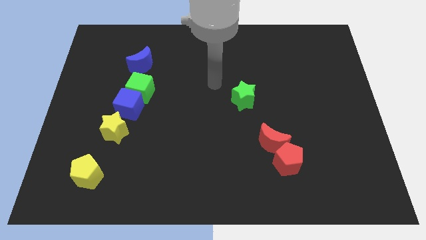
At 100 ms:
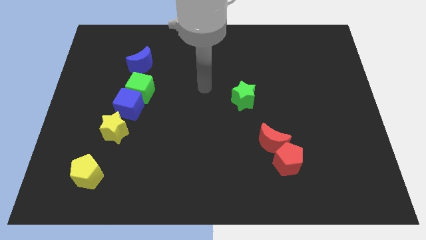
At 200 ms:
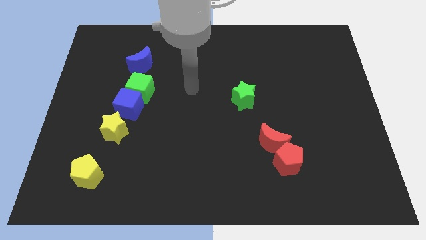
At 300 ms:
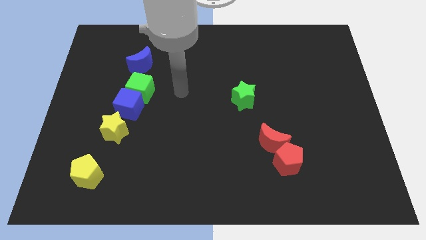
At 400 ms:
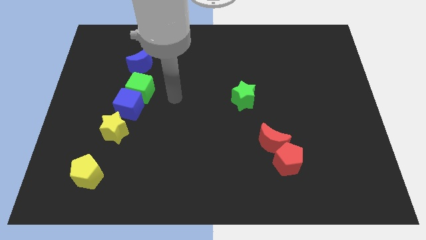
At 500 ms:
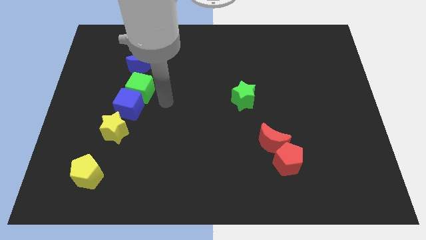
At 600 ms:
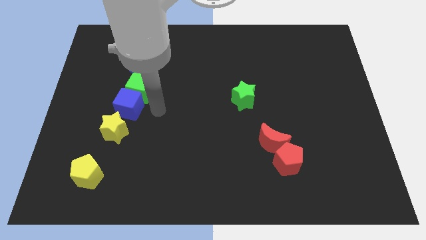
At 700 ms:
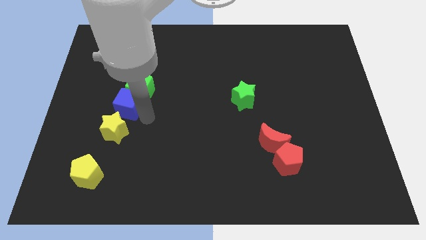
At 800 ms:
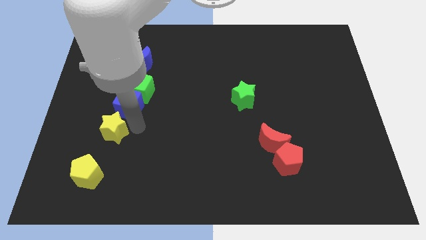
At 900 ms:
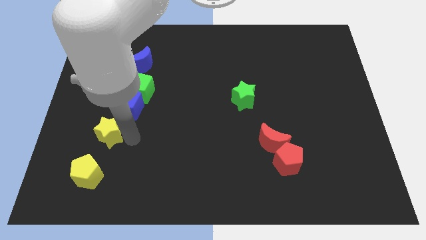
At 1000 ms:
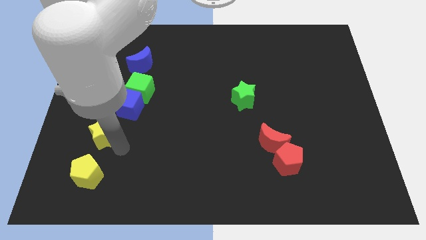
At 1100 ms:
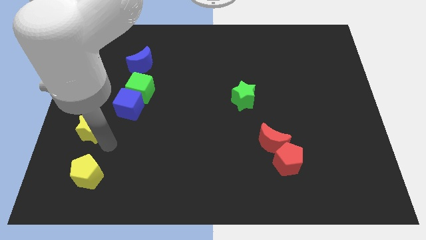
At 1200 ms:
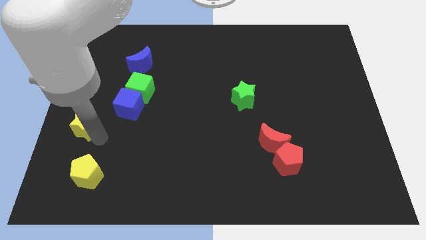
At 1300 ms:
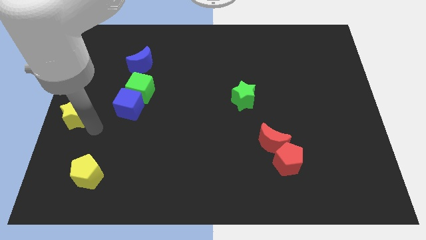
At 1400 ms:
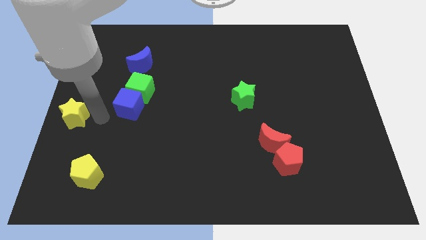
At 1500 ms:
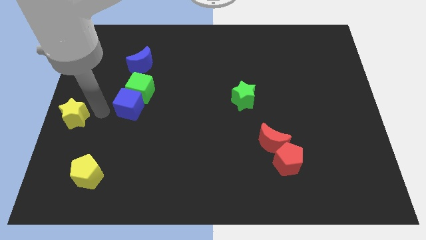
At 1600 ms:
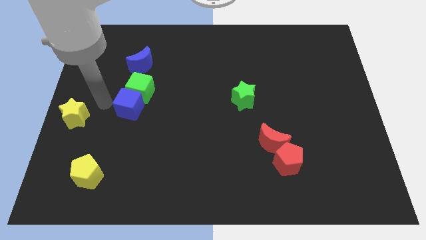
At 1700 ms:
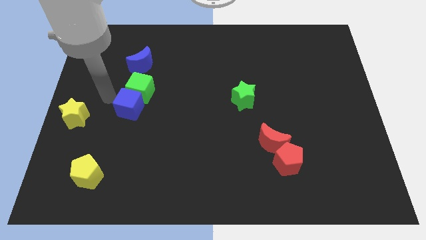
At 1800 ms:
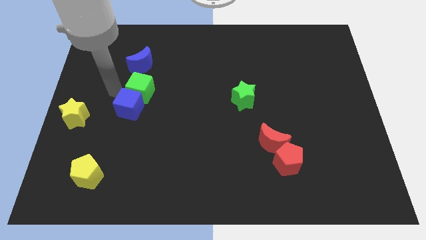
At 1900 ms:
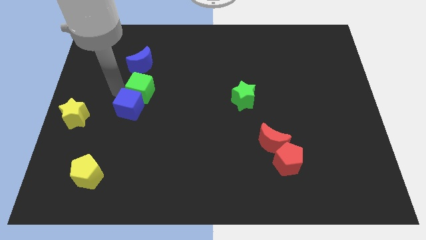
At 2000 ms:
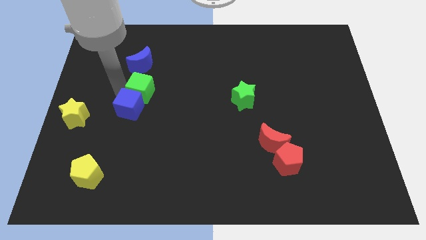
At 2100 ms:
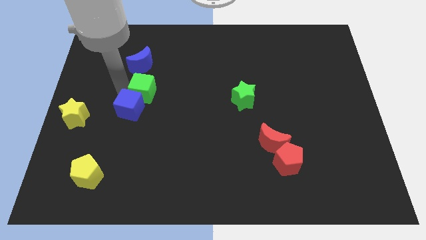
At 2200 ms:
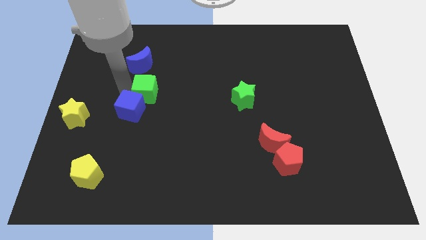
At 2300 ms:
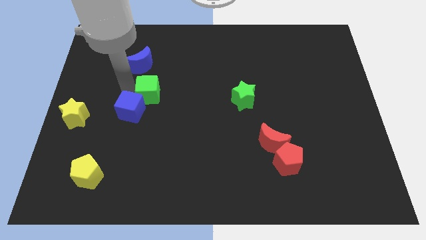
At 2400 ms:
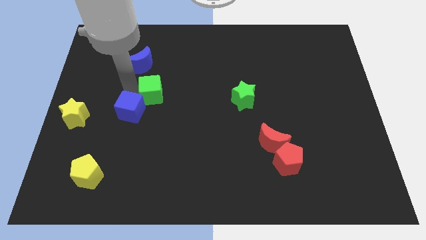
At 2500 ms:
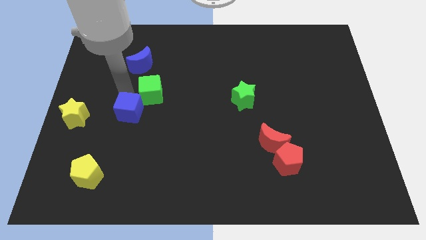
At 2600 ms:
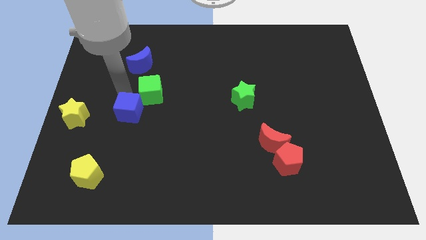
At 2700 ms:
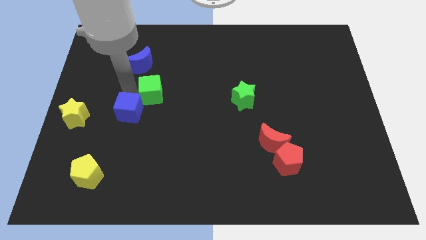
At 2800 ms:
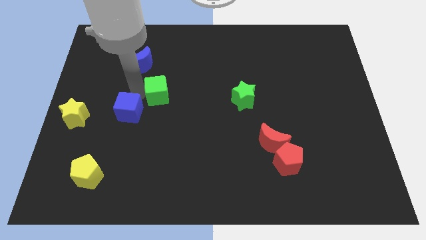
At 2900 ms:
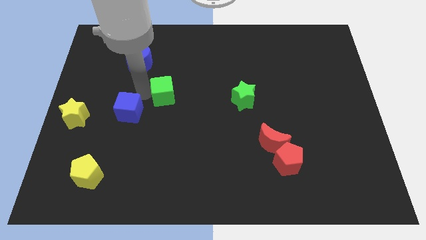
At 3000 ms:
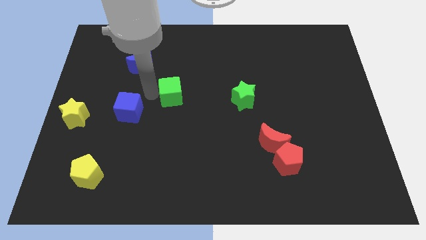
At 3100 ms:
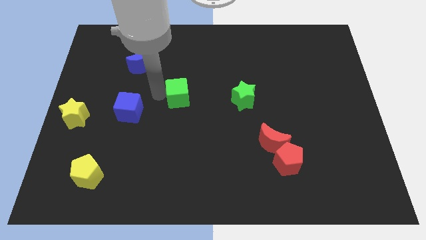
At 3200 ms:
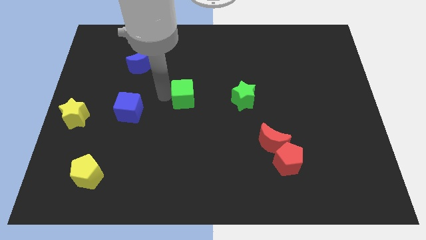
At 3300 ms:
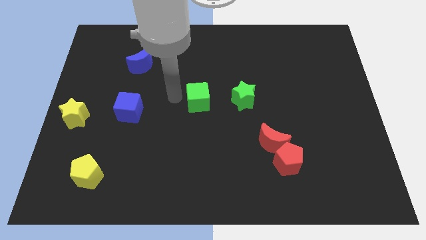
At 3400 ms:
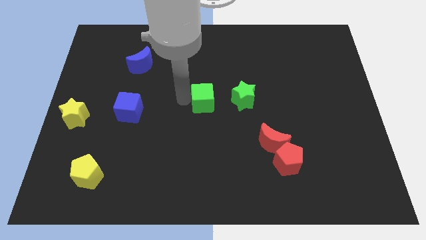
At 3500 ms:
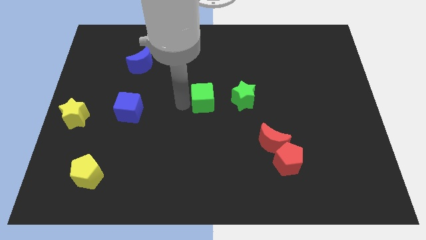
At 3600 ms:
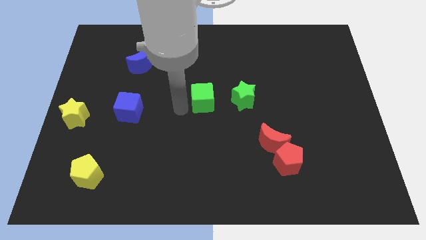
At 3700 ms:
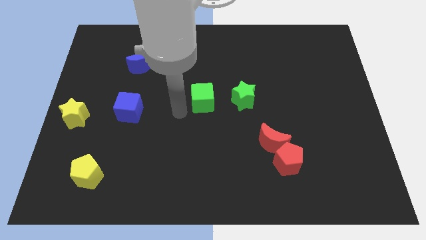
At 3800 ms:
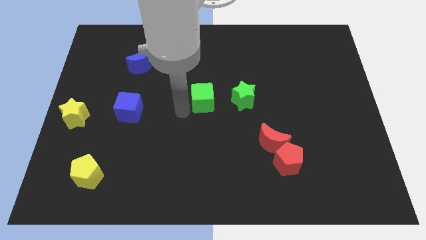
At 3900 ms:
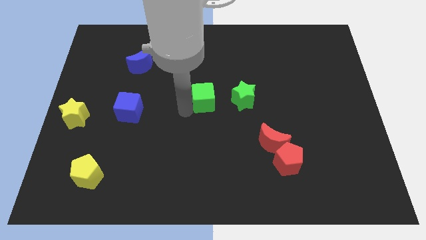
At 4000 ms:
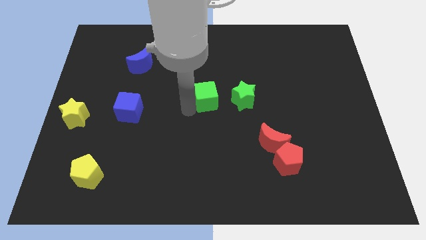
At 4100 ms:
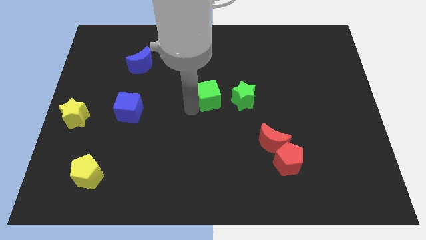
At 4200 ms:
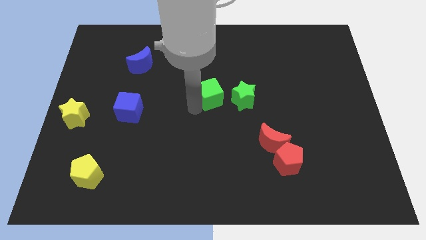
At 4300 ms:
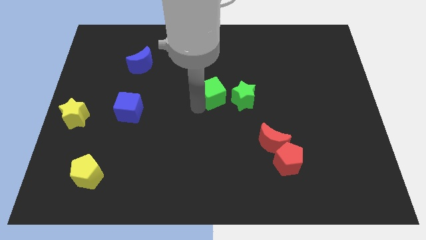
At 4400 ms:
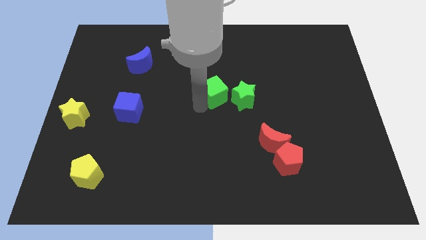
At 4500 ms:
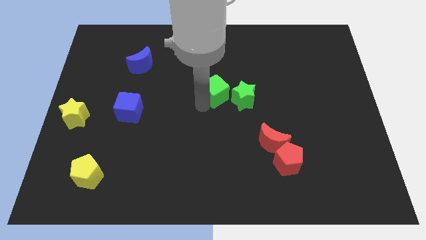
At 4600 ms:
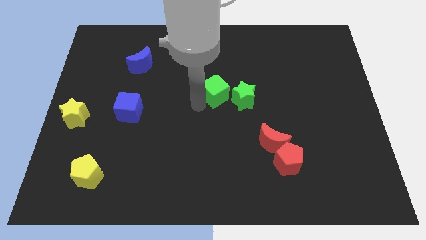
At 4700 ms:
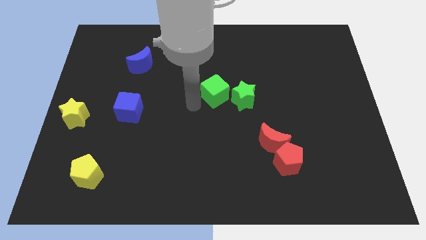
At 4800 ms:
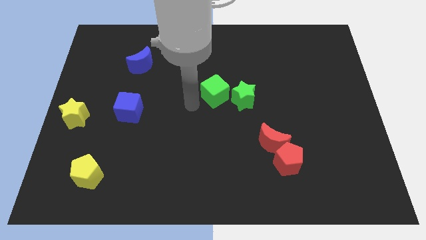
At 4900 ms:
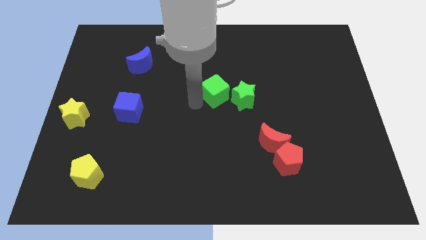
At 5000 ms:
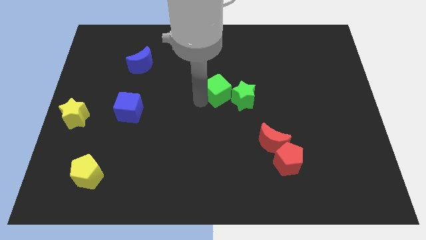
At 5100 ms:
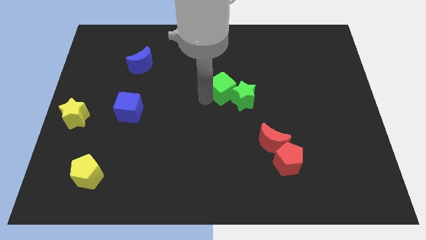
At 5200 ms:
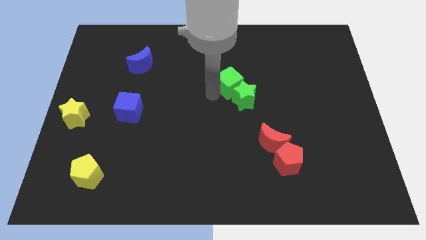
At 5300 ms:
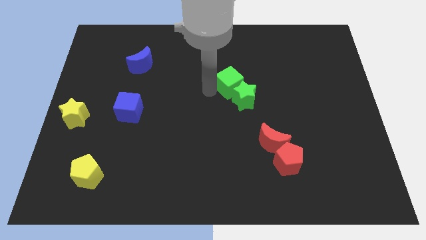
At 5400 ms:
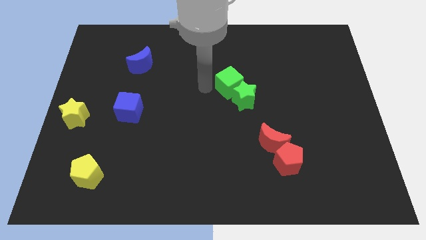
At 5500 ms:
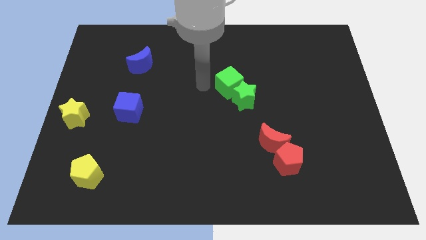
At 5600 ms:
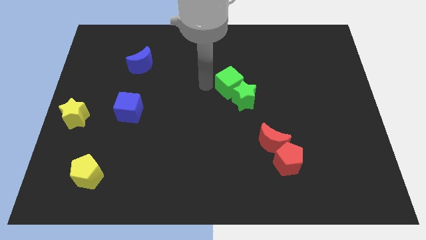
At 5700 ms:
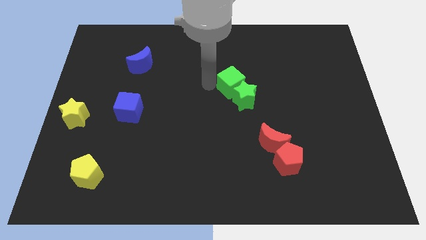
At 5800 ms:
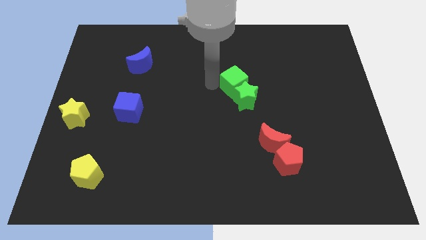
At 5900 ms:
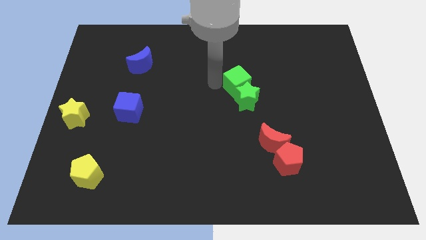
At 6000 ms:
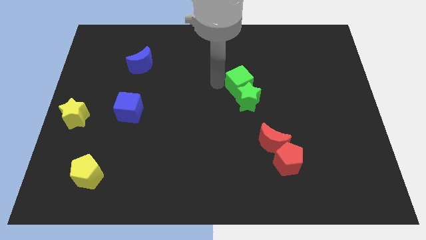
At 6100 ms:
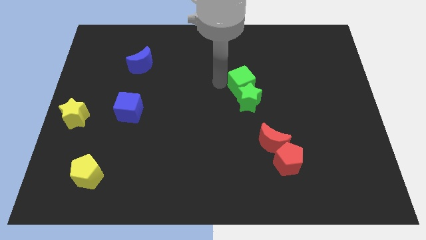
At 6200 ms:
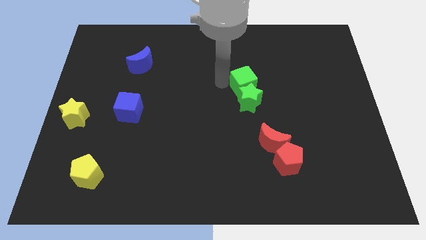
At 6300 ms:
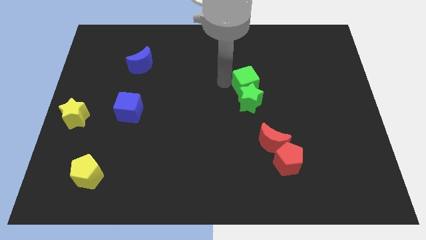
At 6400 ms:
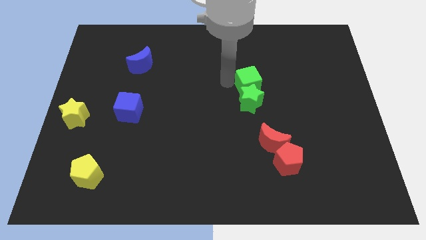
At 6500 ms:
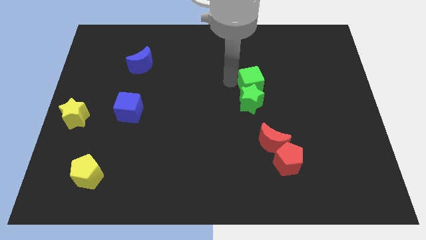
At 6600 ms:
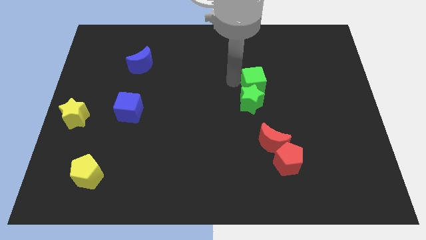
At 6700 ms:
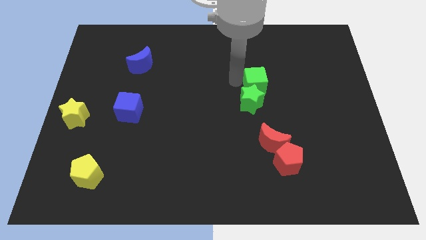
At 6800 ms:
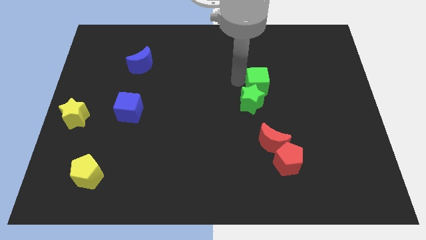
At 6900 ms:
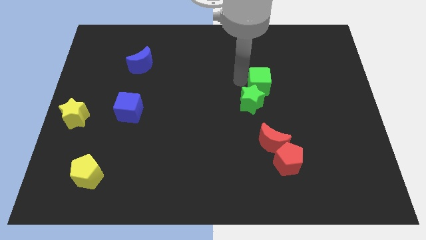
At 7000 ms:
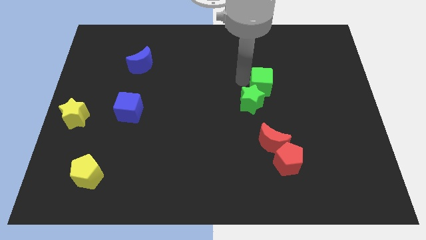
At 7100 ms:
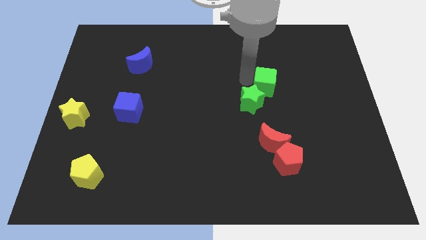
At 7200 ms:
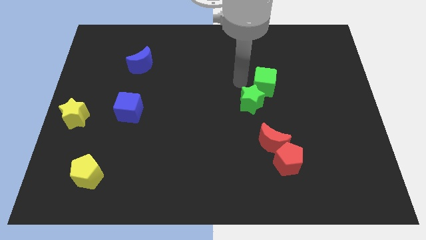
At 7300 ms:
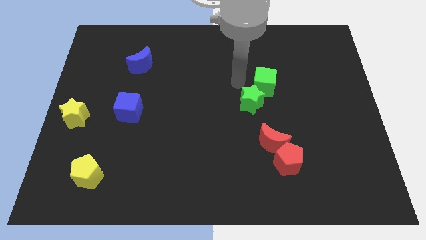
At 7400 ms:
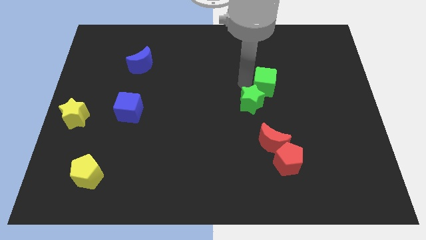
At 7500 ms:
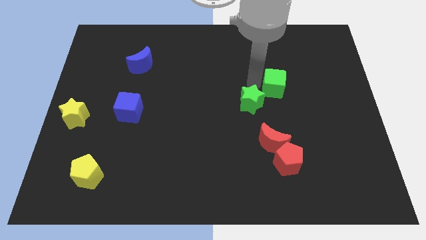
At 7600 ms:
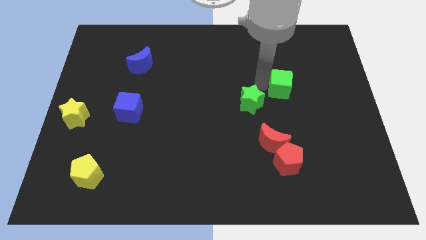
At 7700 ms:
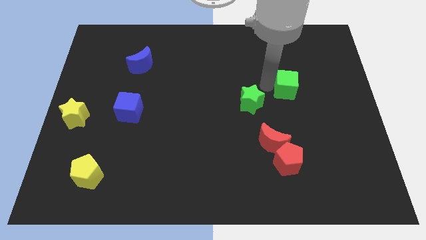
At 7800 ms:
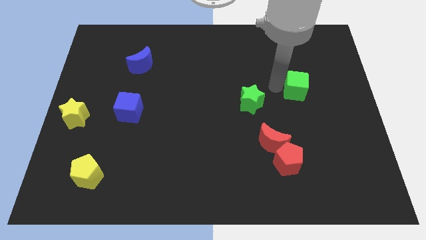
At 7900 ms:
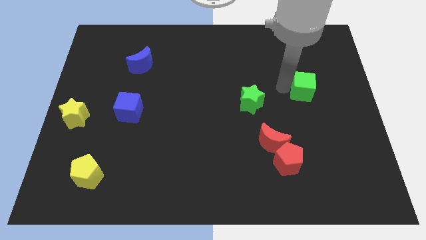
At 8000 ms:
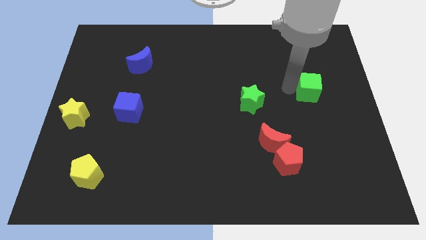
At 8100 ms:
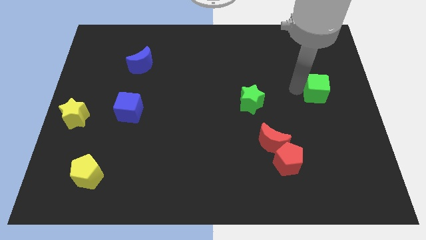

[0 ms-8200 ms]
push the green cube to the center right
